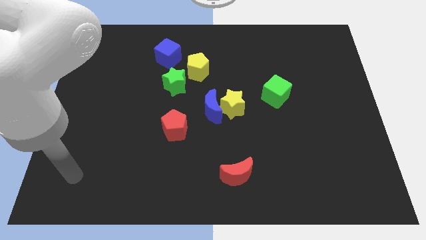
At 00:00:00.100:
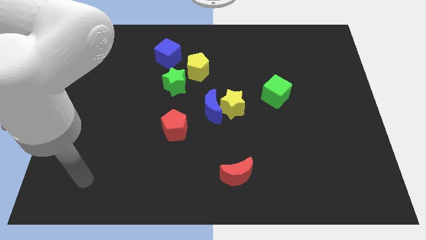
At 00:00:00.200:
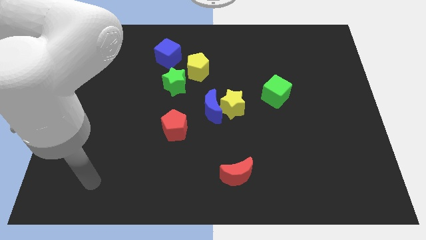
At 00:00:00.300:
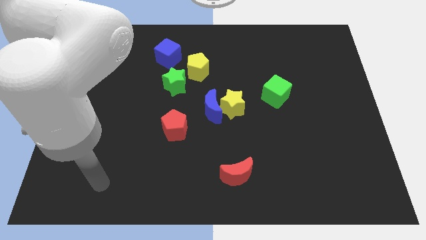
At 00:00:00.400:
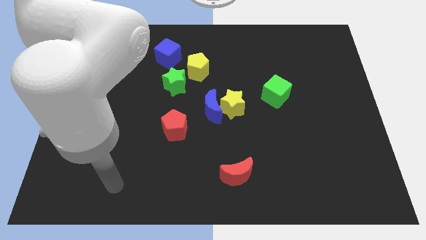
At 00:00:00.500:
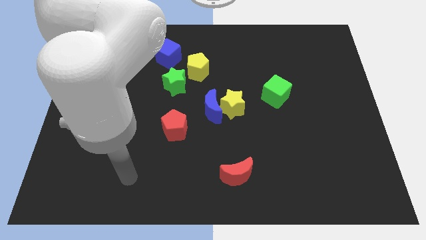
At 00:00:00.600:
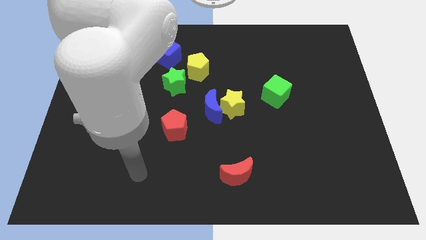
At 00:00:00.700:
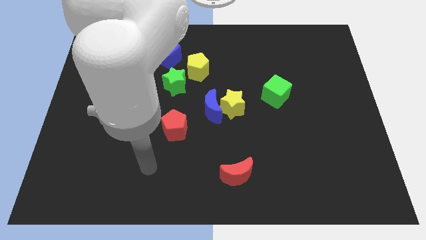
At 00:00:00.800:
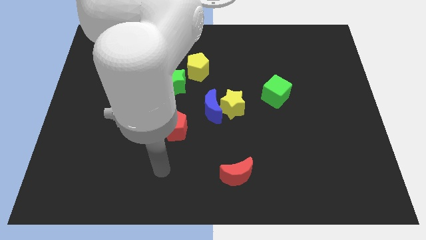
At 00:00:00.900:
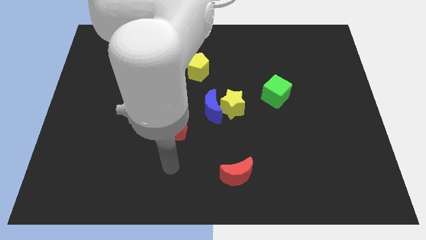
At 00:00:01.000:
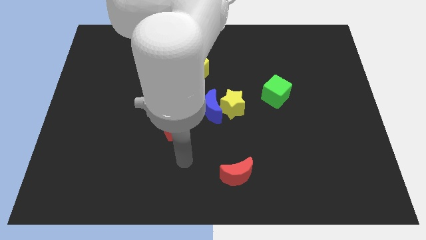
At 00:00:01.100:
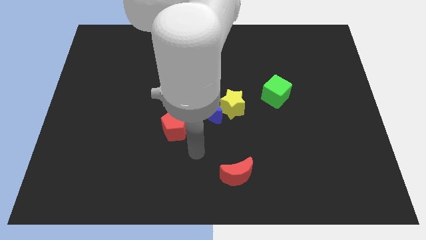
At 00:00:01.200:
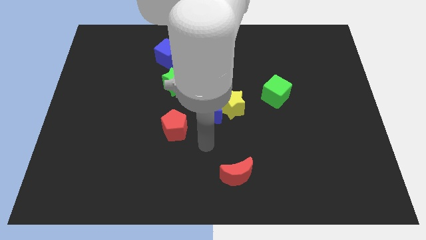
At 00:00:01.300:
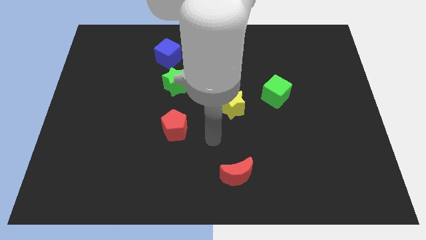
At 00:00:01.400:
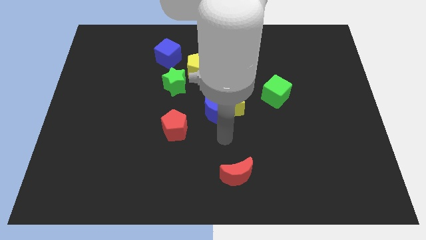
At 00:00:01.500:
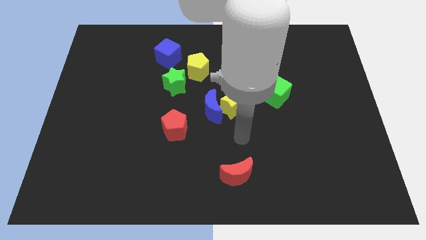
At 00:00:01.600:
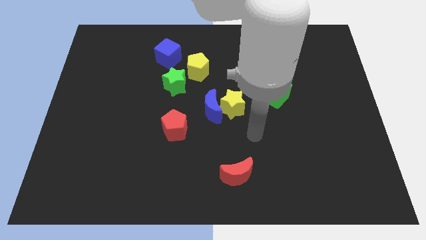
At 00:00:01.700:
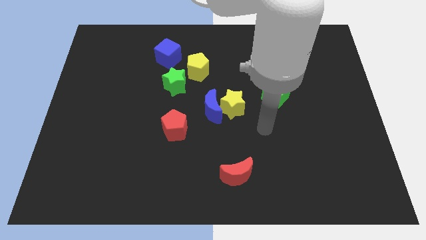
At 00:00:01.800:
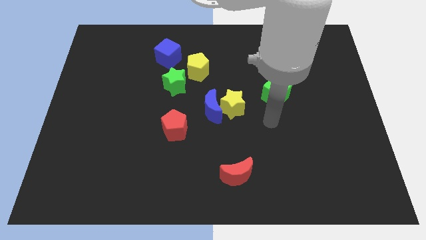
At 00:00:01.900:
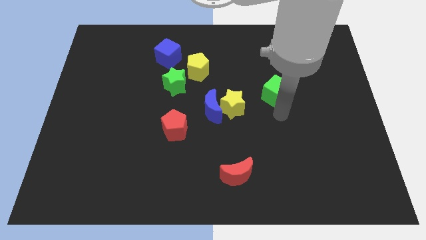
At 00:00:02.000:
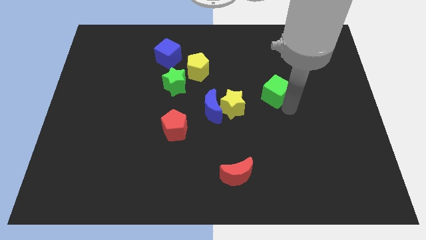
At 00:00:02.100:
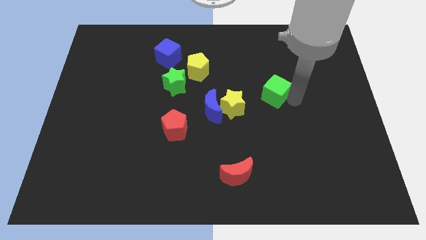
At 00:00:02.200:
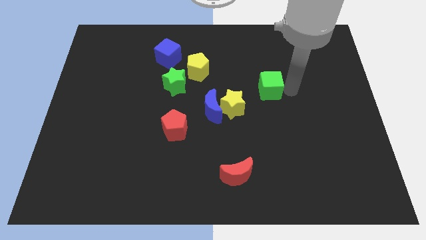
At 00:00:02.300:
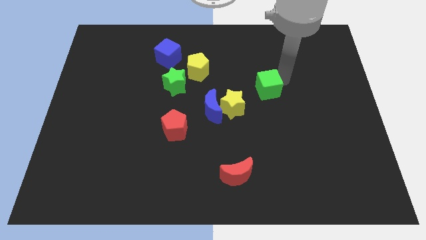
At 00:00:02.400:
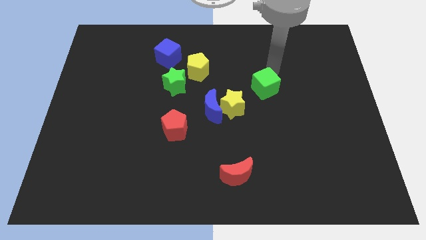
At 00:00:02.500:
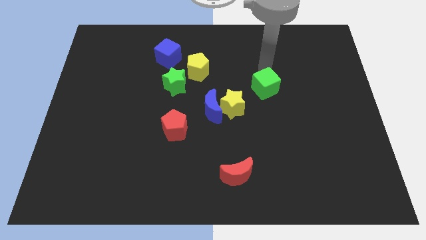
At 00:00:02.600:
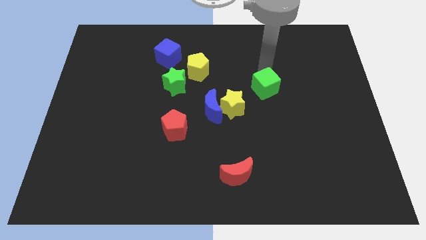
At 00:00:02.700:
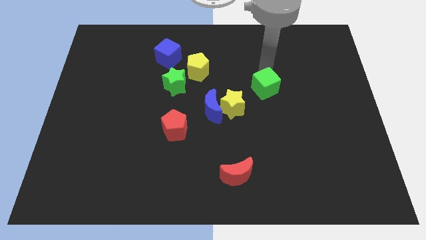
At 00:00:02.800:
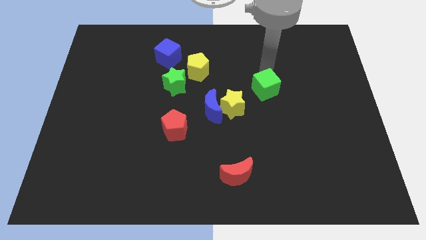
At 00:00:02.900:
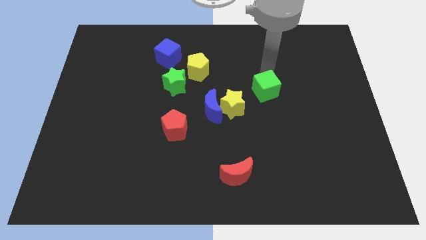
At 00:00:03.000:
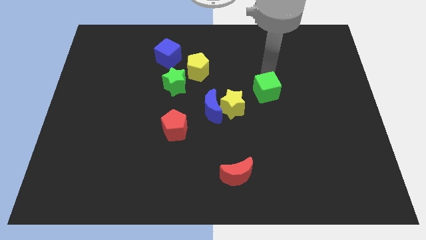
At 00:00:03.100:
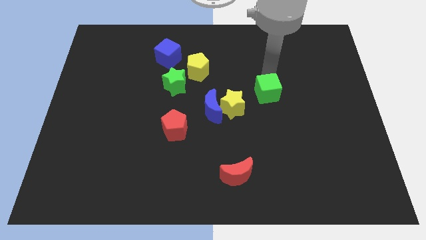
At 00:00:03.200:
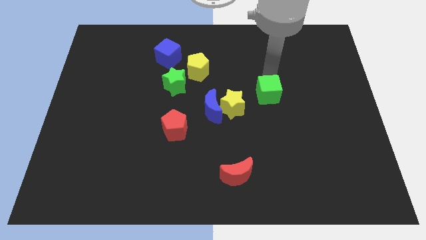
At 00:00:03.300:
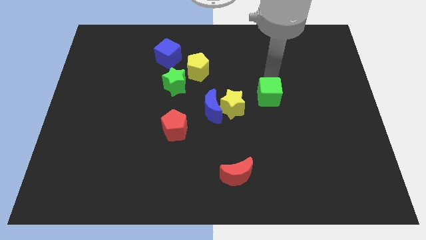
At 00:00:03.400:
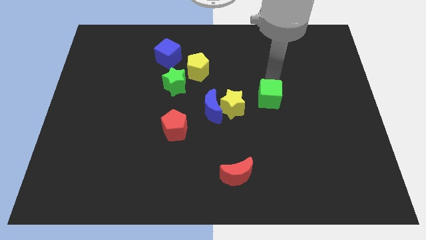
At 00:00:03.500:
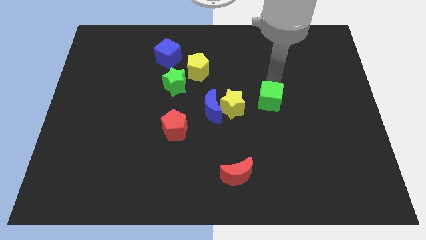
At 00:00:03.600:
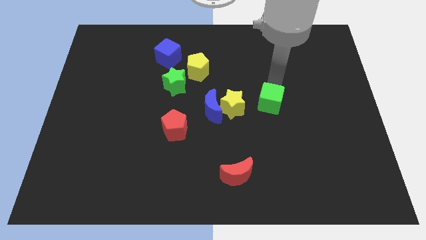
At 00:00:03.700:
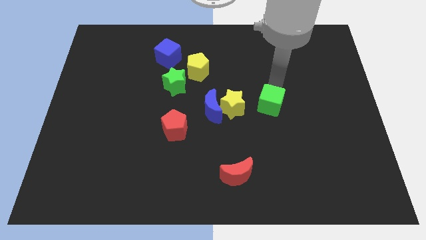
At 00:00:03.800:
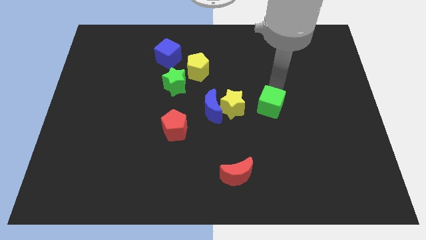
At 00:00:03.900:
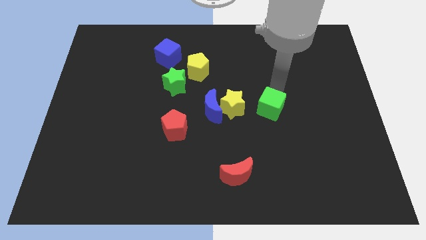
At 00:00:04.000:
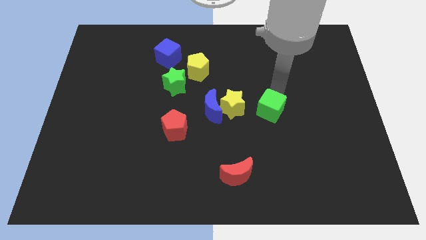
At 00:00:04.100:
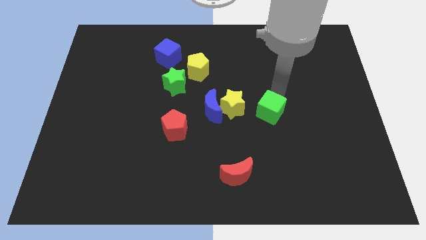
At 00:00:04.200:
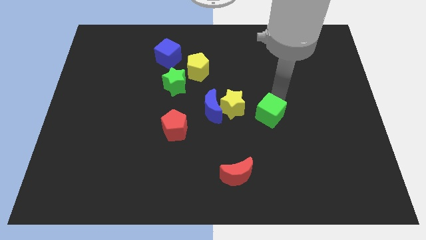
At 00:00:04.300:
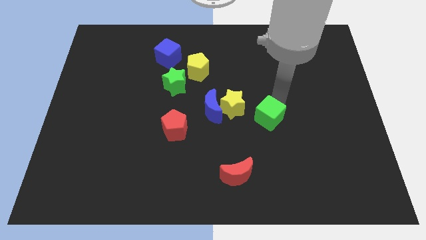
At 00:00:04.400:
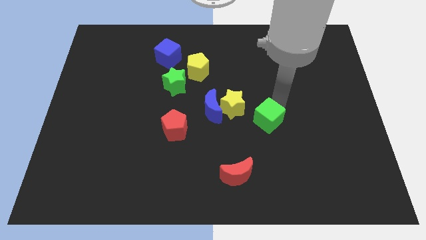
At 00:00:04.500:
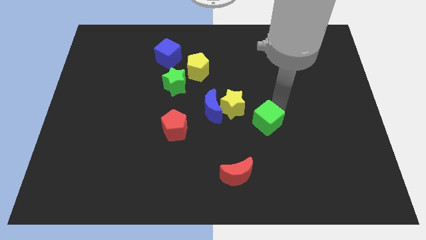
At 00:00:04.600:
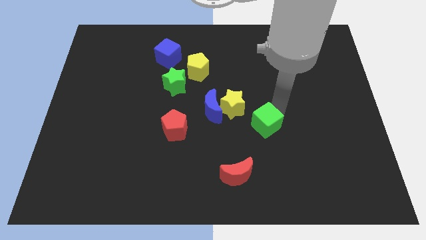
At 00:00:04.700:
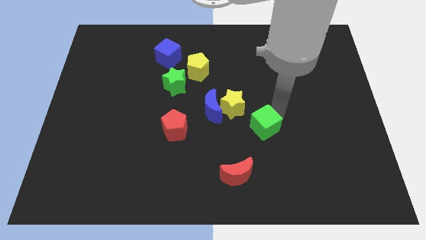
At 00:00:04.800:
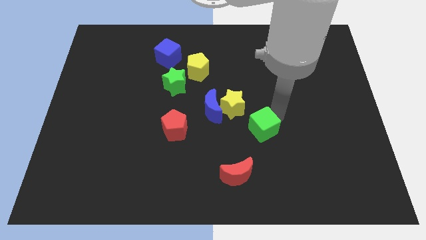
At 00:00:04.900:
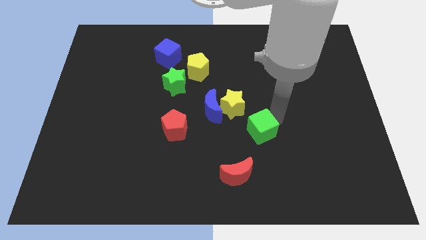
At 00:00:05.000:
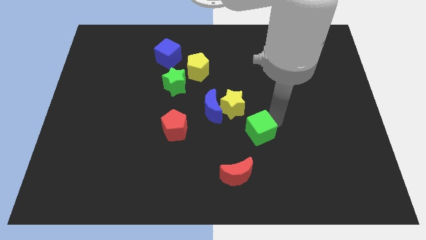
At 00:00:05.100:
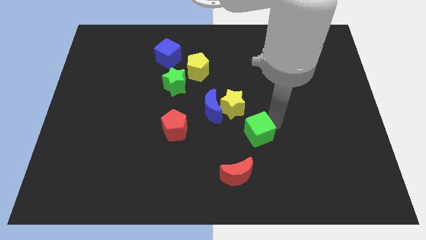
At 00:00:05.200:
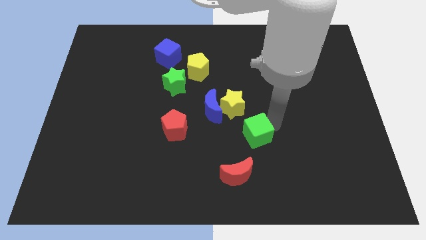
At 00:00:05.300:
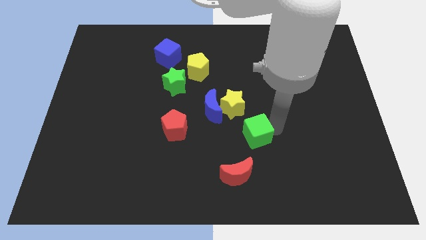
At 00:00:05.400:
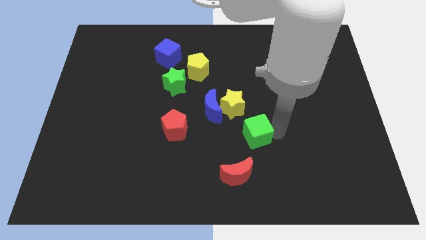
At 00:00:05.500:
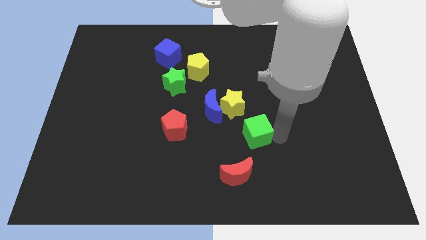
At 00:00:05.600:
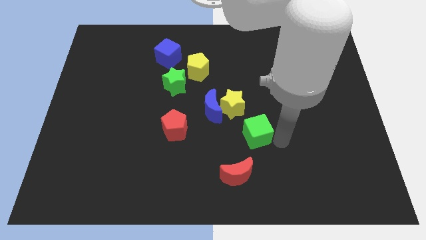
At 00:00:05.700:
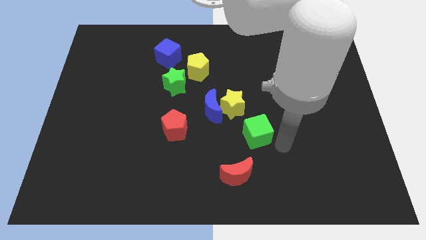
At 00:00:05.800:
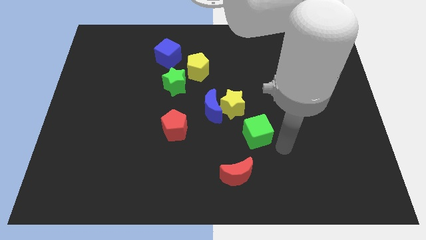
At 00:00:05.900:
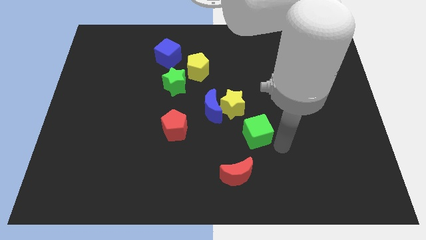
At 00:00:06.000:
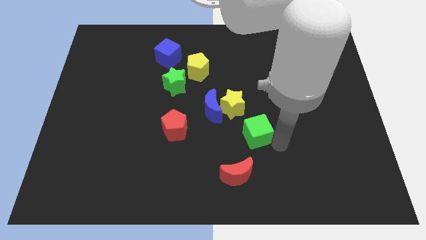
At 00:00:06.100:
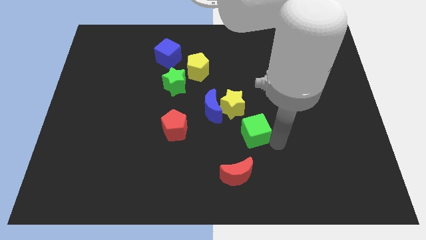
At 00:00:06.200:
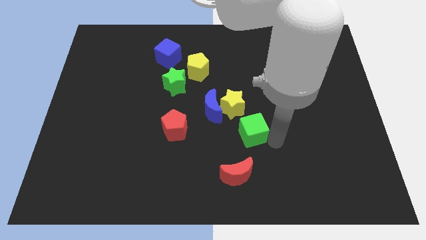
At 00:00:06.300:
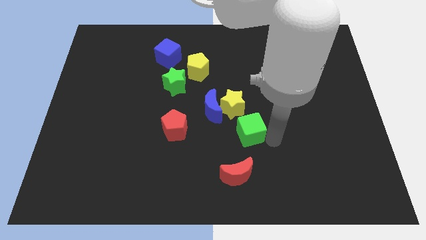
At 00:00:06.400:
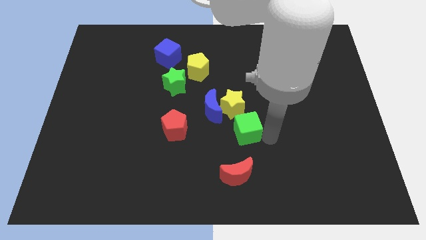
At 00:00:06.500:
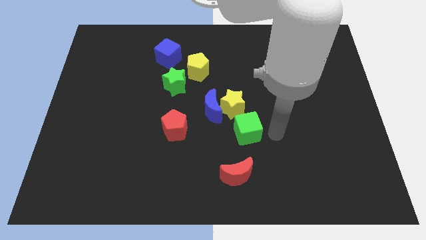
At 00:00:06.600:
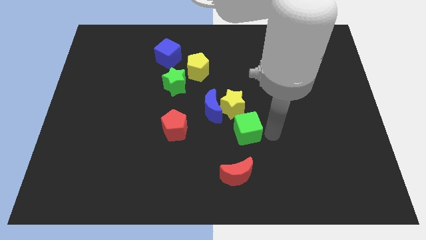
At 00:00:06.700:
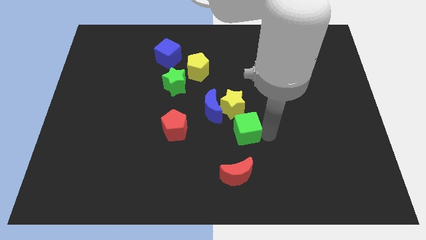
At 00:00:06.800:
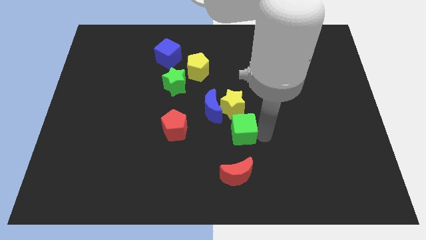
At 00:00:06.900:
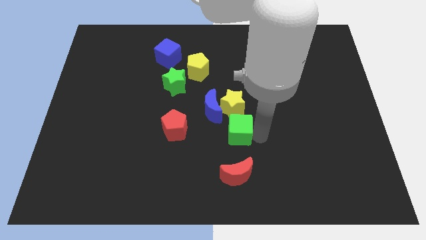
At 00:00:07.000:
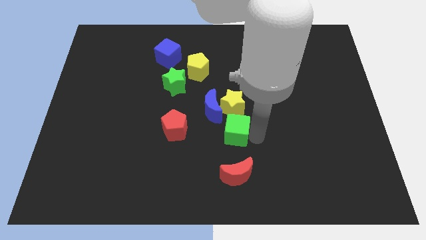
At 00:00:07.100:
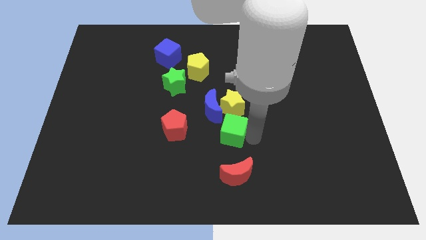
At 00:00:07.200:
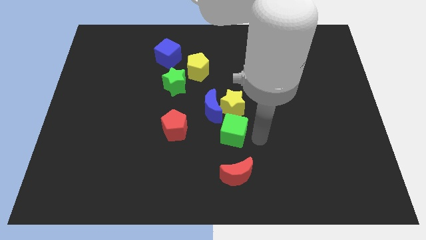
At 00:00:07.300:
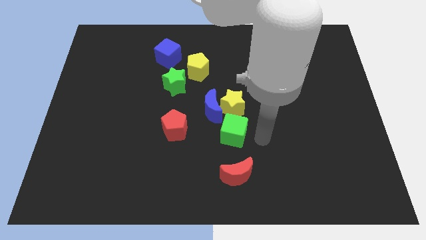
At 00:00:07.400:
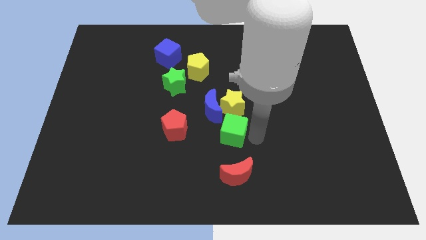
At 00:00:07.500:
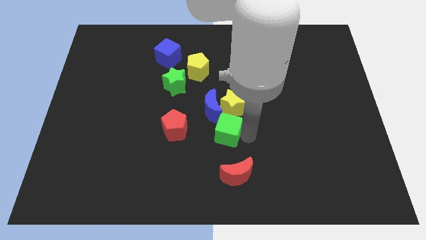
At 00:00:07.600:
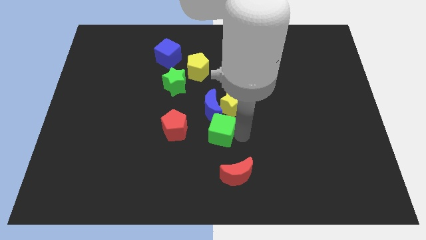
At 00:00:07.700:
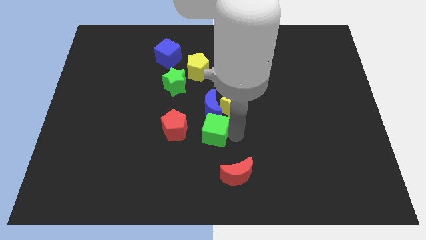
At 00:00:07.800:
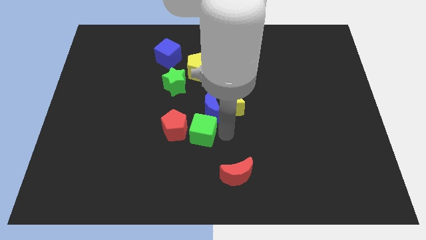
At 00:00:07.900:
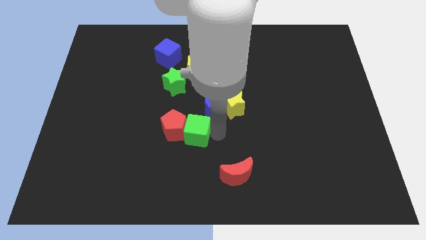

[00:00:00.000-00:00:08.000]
slide the green cube next to the red pentagon
